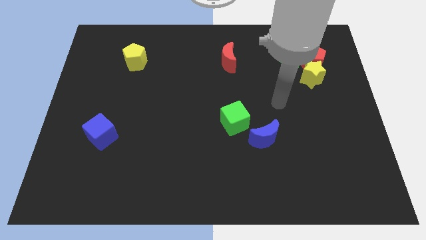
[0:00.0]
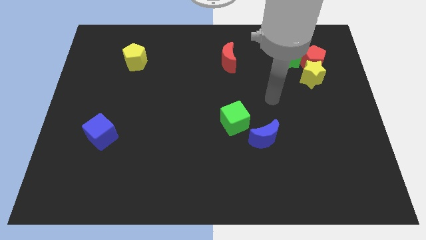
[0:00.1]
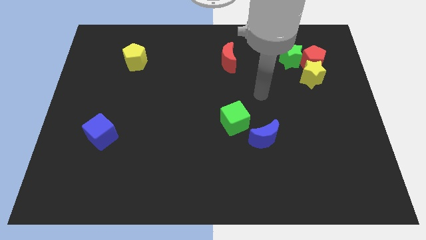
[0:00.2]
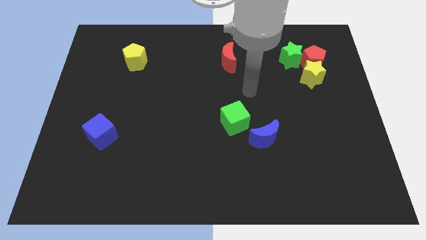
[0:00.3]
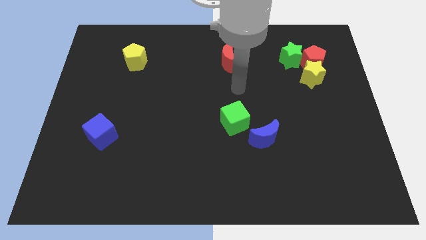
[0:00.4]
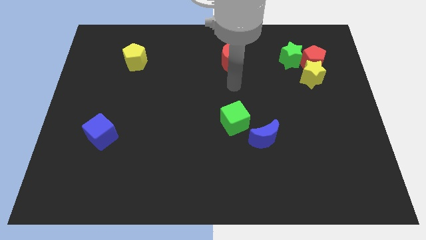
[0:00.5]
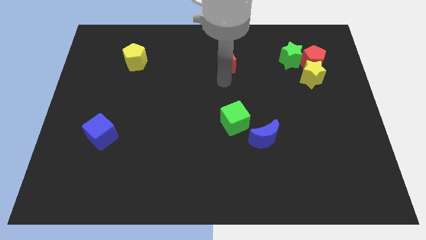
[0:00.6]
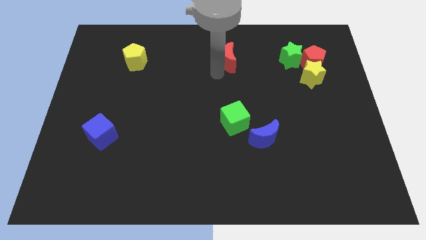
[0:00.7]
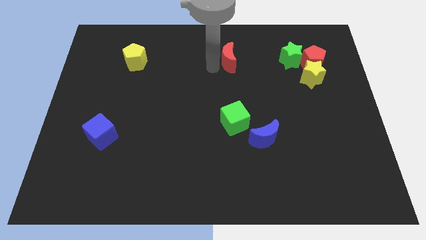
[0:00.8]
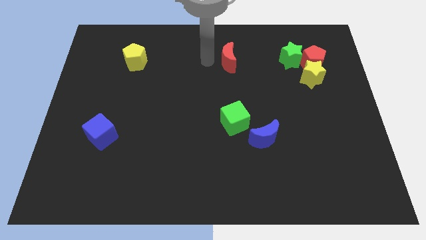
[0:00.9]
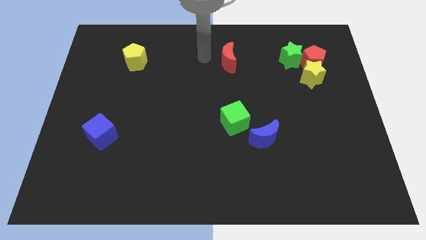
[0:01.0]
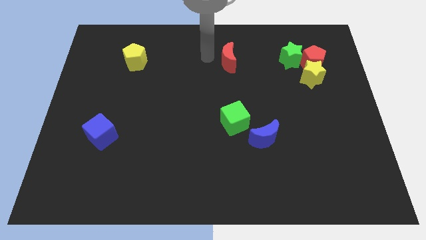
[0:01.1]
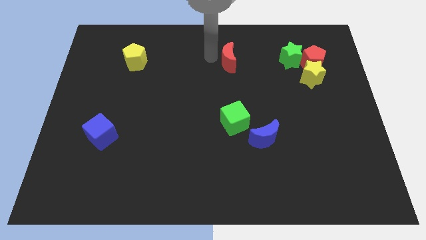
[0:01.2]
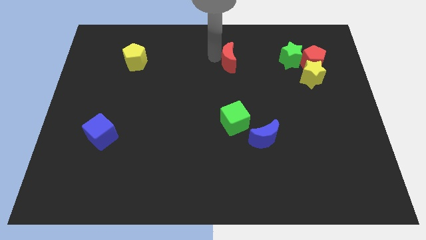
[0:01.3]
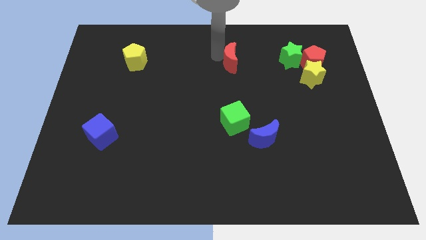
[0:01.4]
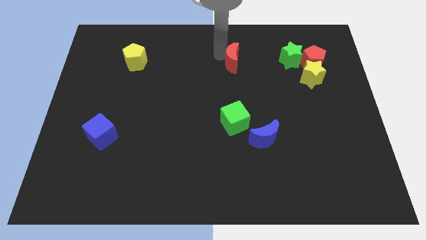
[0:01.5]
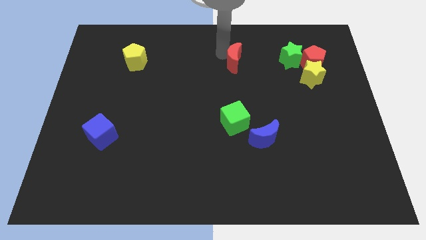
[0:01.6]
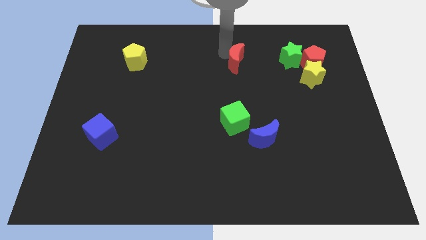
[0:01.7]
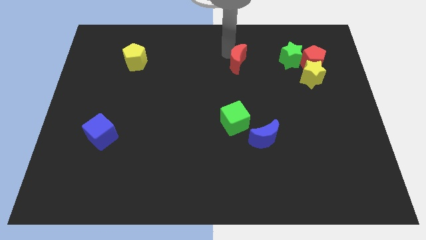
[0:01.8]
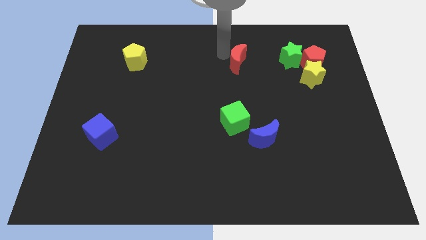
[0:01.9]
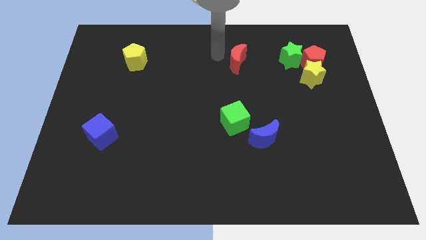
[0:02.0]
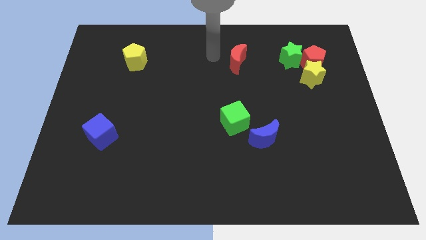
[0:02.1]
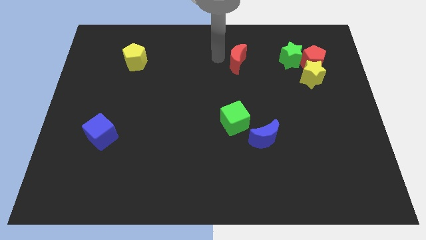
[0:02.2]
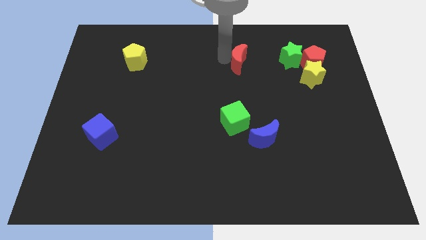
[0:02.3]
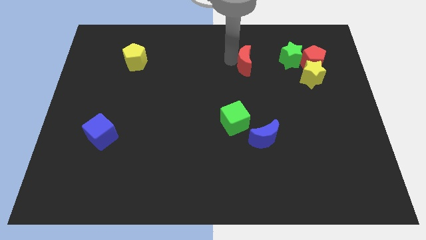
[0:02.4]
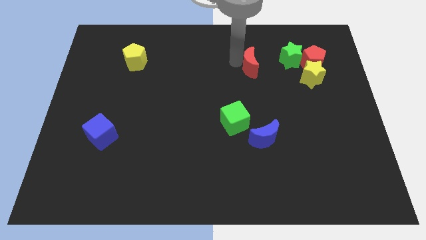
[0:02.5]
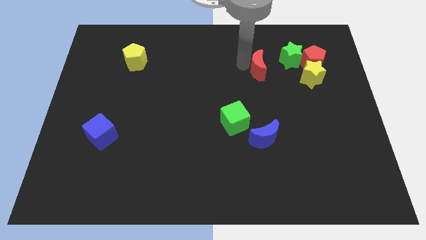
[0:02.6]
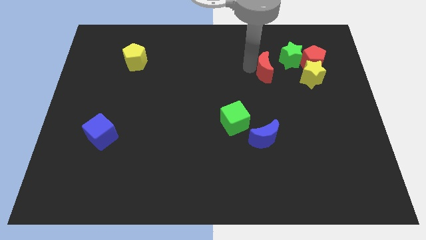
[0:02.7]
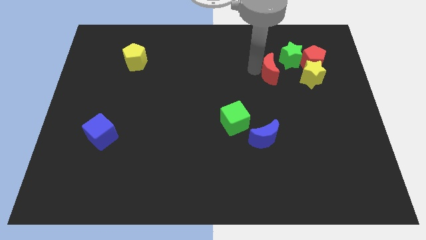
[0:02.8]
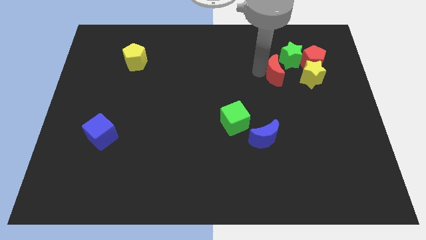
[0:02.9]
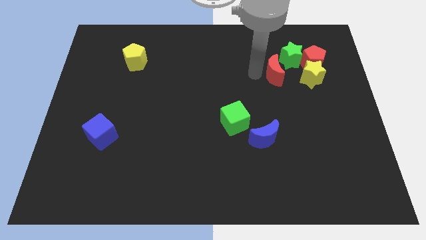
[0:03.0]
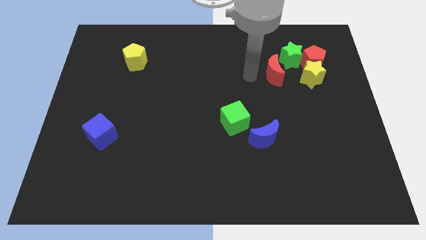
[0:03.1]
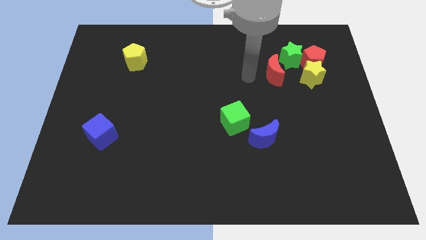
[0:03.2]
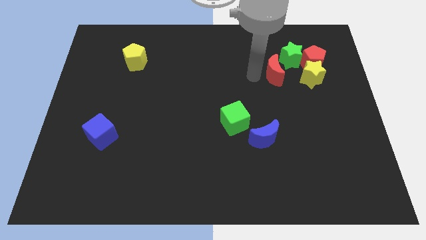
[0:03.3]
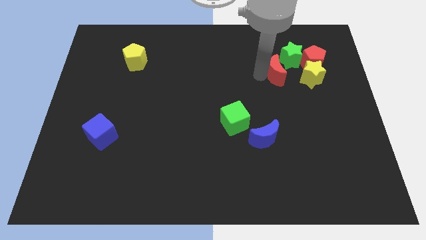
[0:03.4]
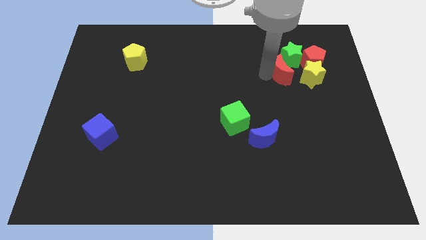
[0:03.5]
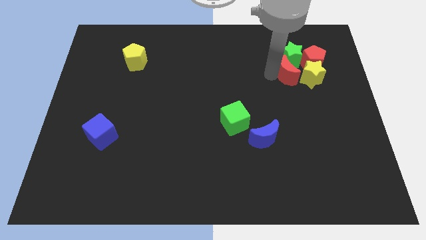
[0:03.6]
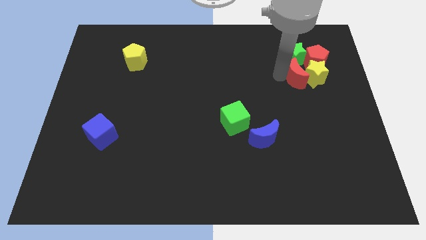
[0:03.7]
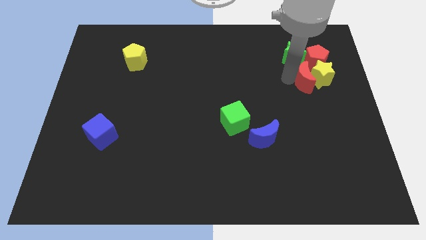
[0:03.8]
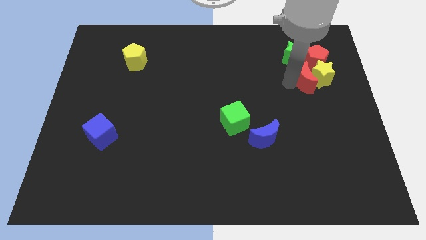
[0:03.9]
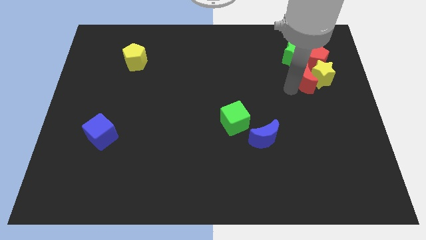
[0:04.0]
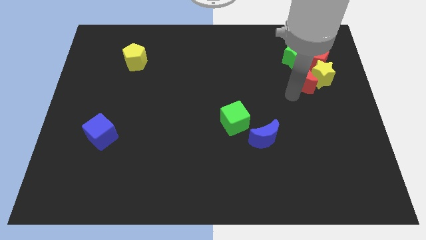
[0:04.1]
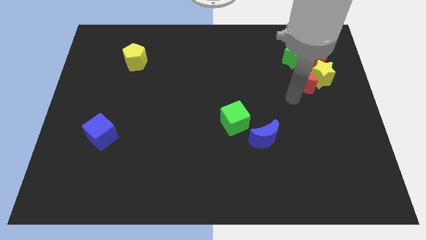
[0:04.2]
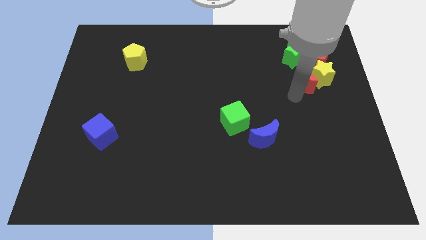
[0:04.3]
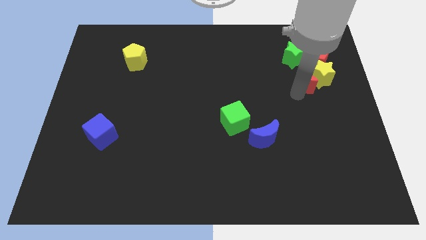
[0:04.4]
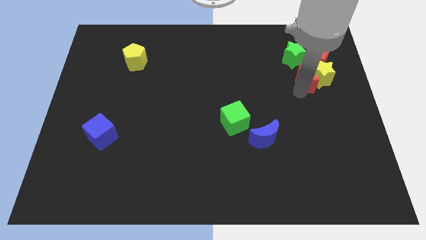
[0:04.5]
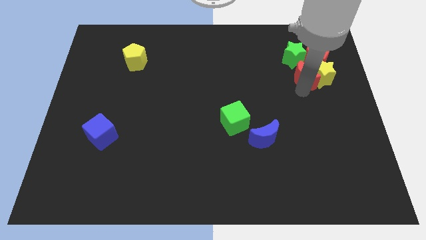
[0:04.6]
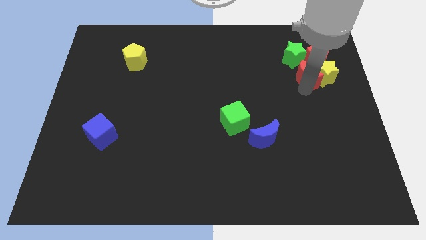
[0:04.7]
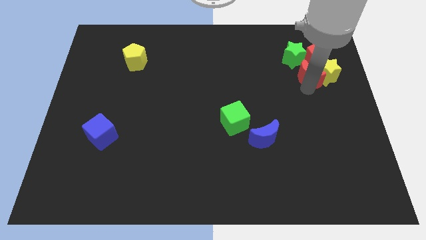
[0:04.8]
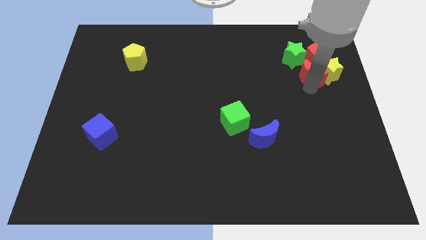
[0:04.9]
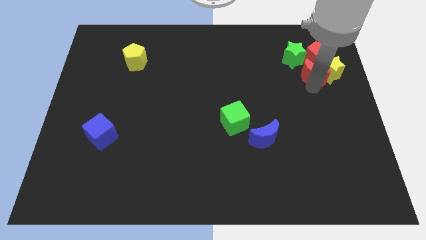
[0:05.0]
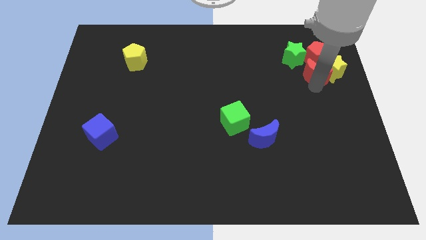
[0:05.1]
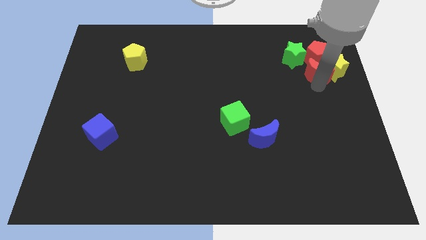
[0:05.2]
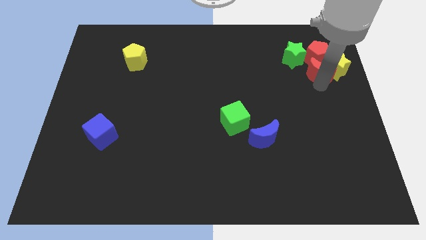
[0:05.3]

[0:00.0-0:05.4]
put the red moon close to the red pentagon

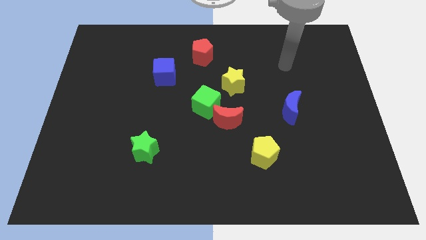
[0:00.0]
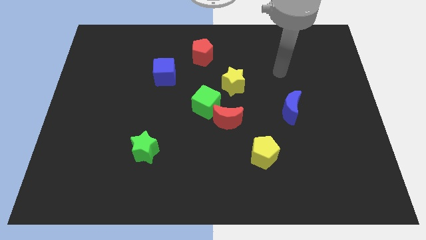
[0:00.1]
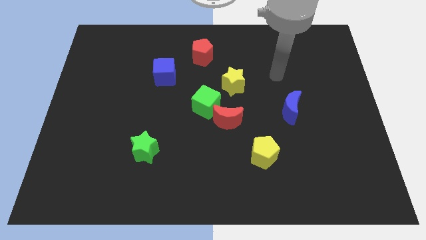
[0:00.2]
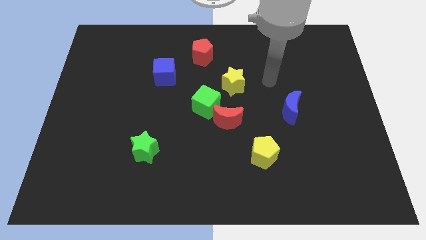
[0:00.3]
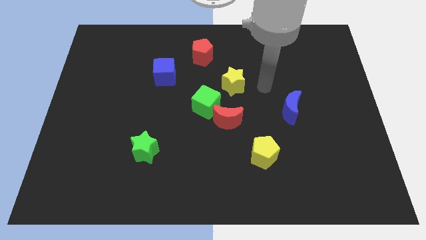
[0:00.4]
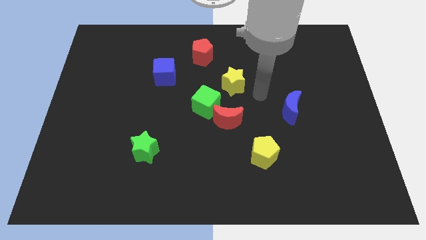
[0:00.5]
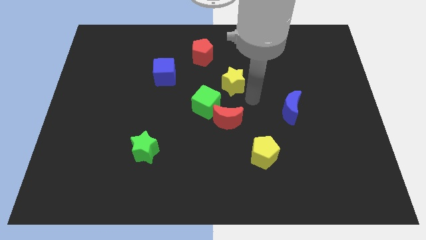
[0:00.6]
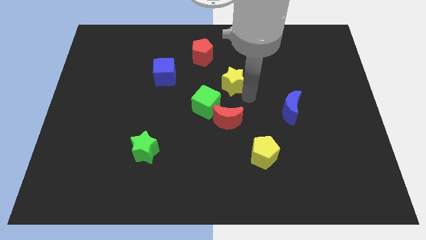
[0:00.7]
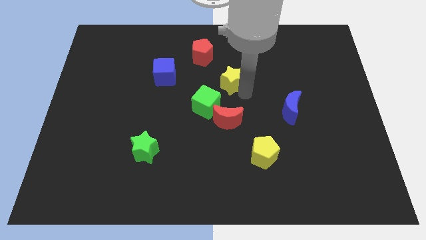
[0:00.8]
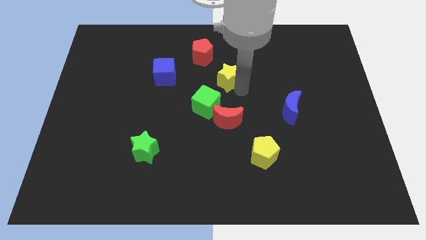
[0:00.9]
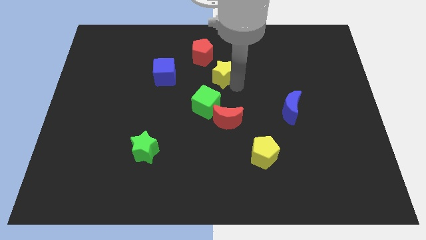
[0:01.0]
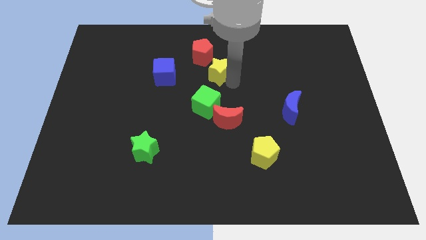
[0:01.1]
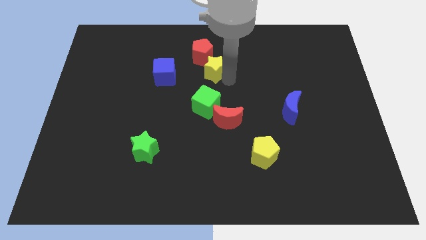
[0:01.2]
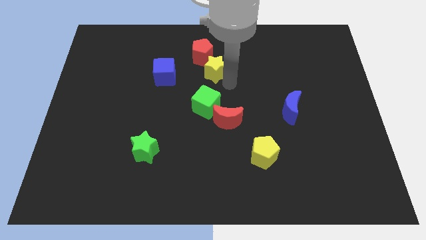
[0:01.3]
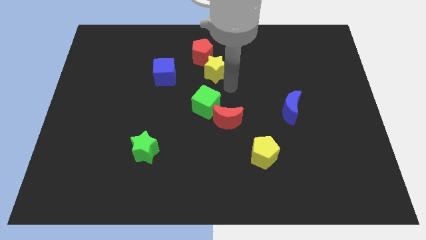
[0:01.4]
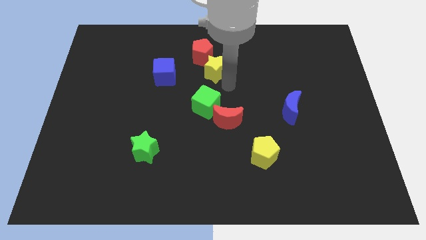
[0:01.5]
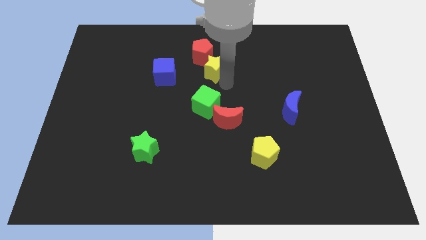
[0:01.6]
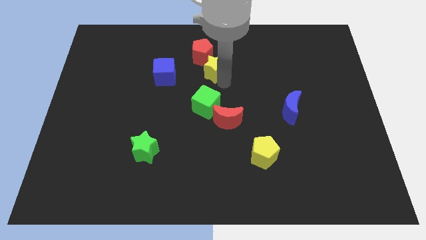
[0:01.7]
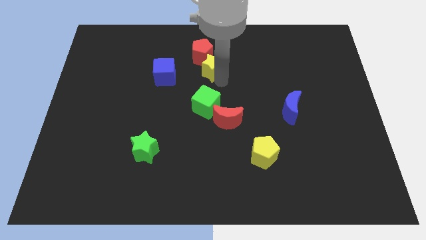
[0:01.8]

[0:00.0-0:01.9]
move the yellow star next to the red pentagon
